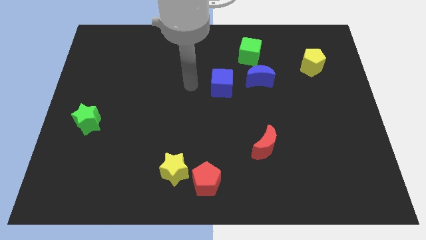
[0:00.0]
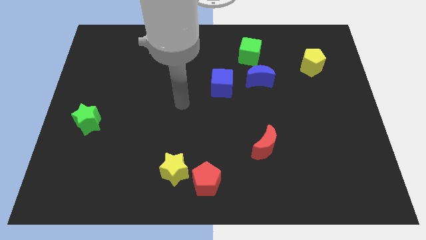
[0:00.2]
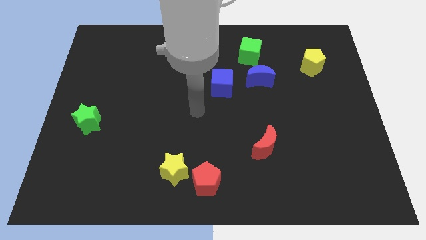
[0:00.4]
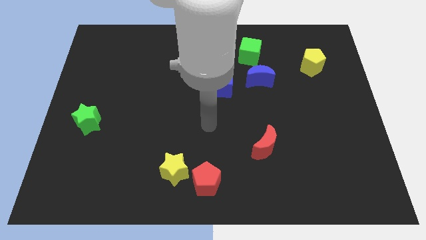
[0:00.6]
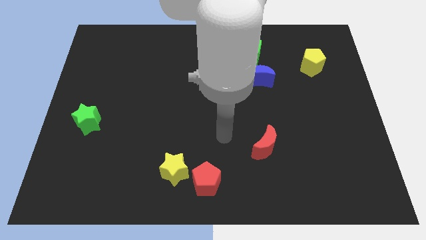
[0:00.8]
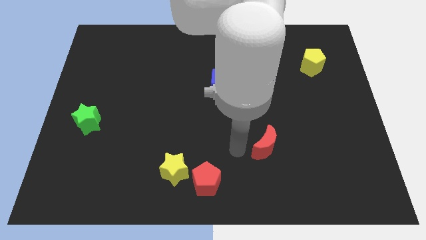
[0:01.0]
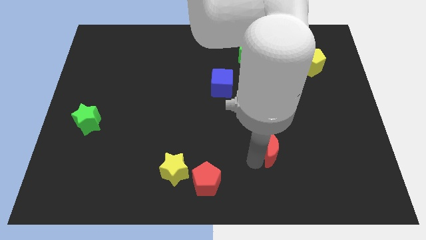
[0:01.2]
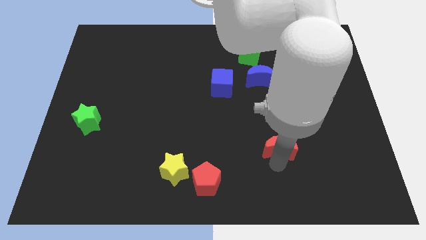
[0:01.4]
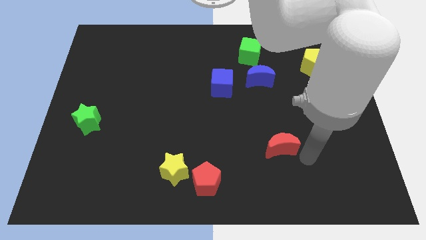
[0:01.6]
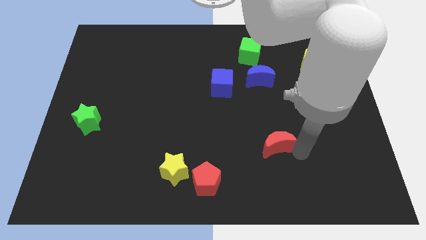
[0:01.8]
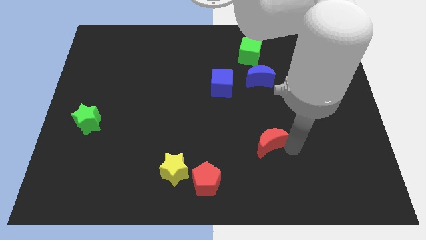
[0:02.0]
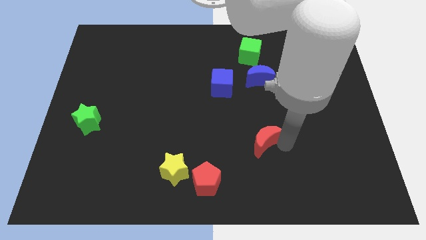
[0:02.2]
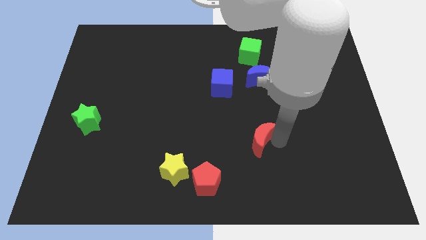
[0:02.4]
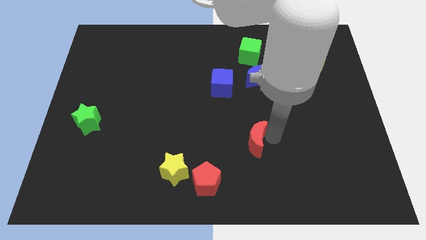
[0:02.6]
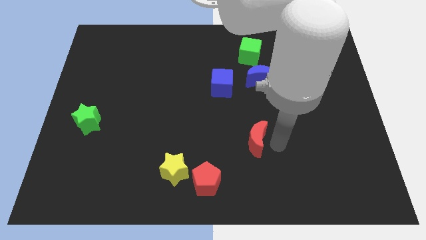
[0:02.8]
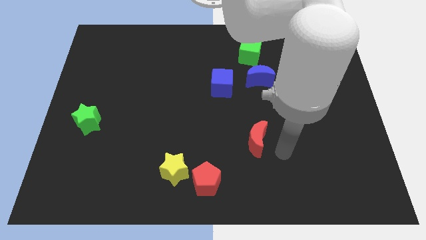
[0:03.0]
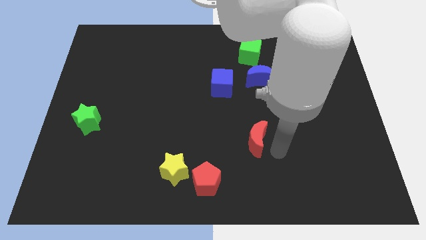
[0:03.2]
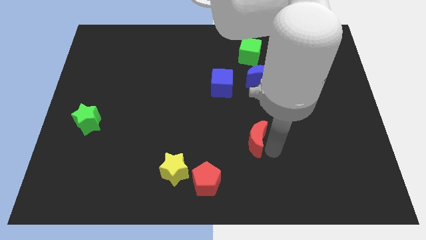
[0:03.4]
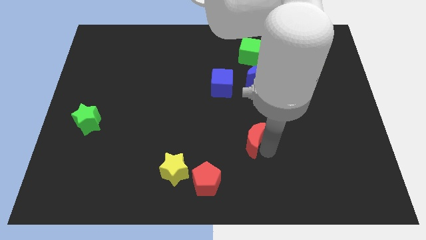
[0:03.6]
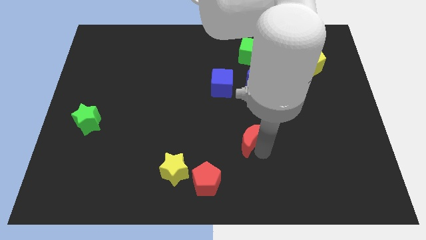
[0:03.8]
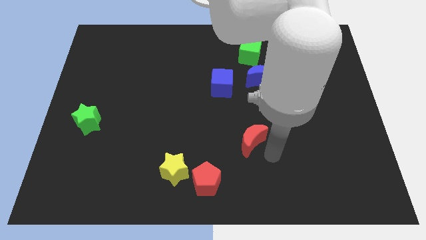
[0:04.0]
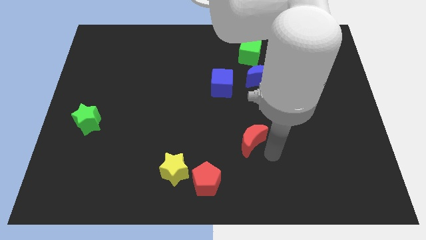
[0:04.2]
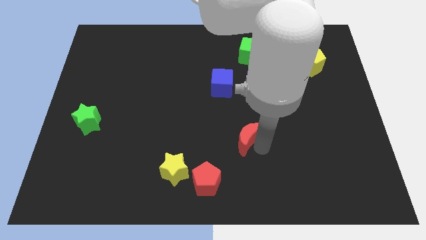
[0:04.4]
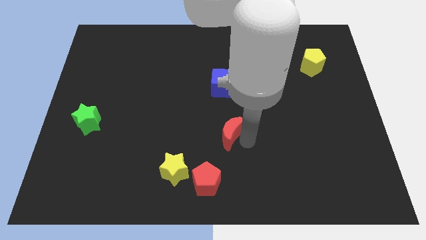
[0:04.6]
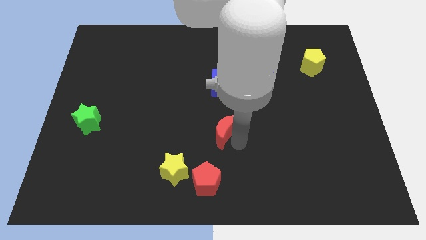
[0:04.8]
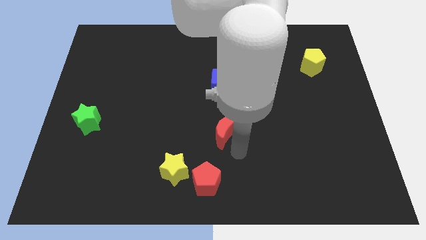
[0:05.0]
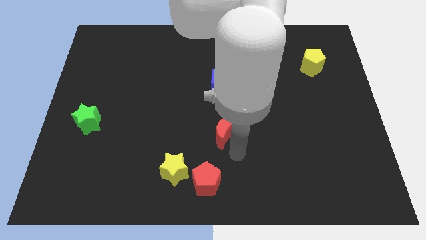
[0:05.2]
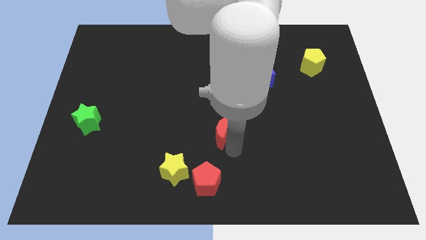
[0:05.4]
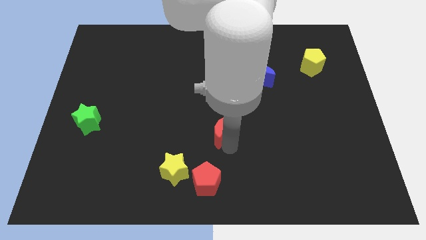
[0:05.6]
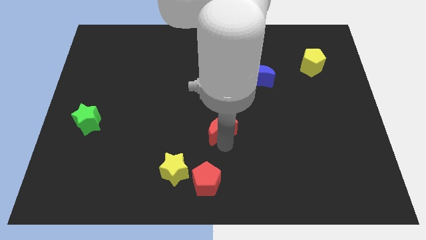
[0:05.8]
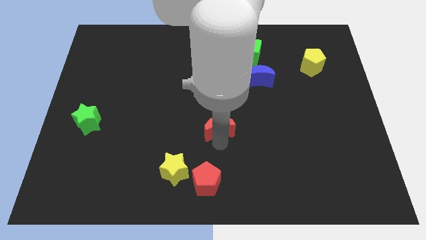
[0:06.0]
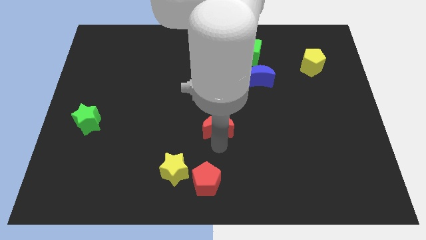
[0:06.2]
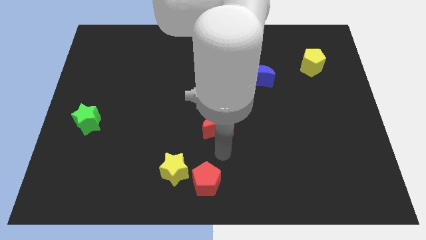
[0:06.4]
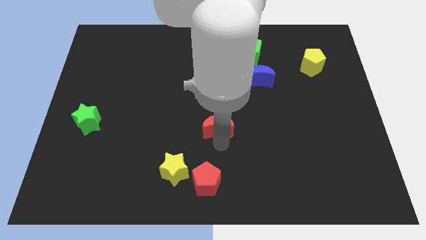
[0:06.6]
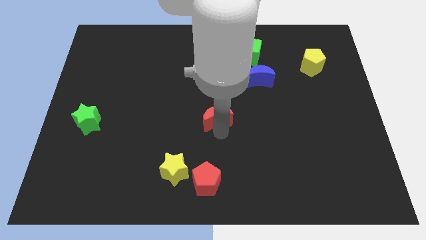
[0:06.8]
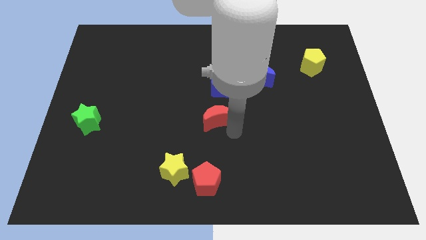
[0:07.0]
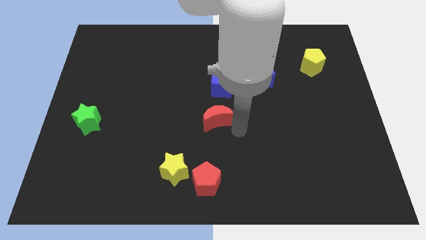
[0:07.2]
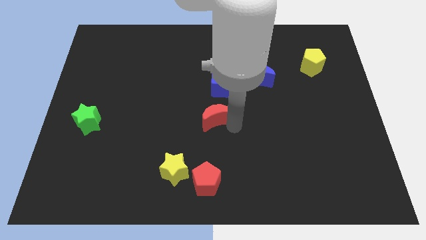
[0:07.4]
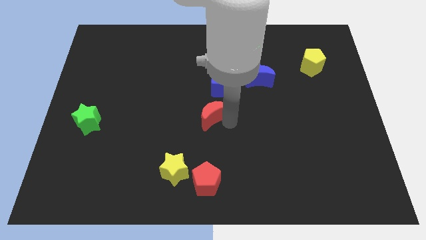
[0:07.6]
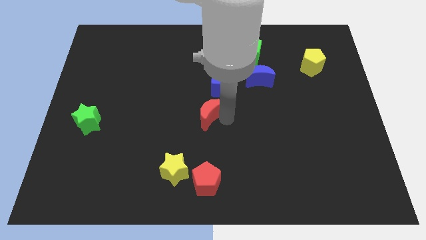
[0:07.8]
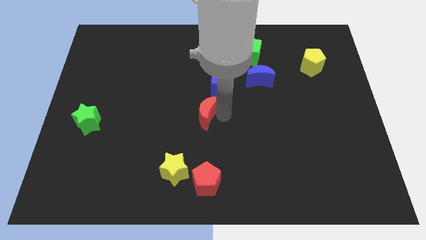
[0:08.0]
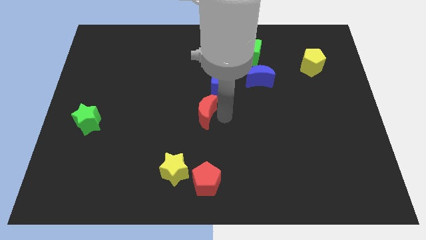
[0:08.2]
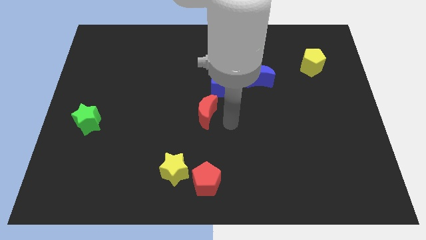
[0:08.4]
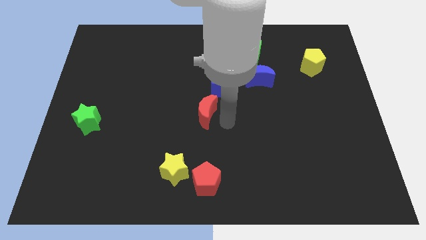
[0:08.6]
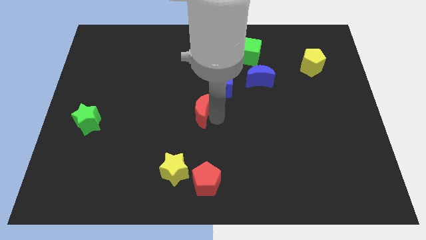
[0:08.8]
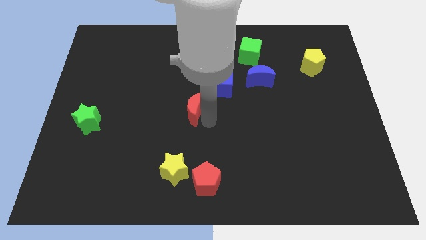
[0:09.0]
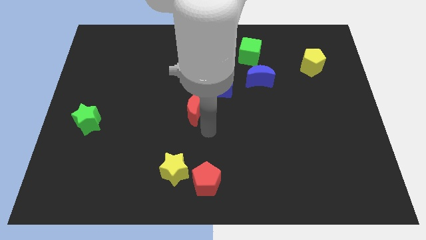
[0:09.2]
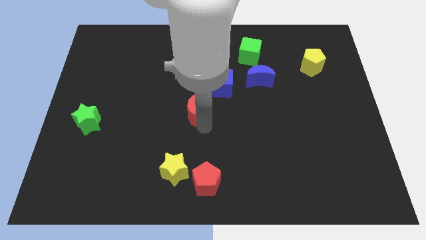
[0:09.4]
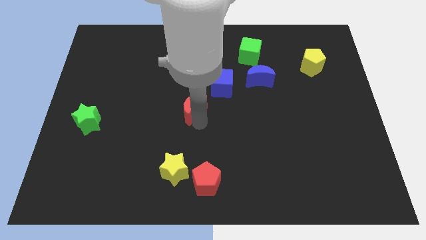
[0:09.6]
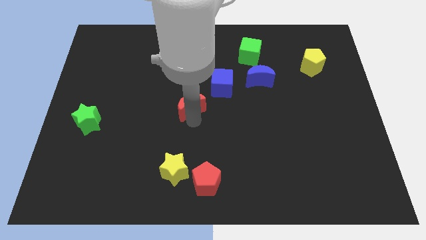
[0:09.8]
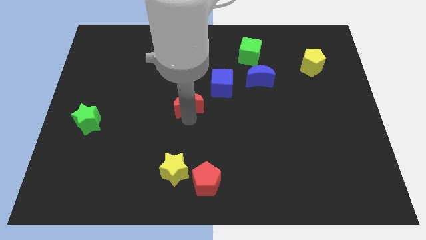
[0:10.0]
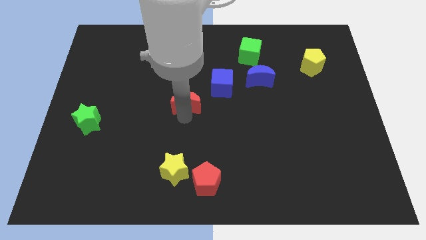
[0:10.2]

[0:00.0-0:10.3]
push the red moon up and left

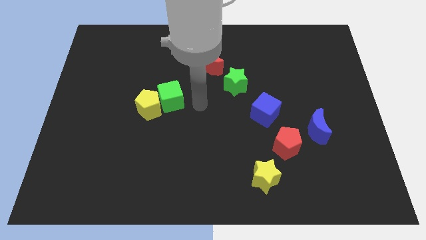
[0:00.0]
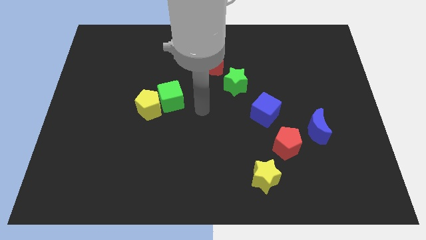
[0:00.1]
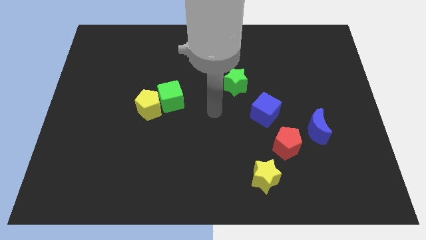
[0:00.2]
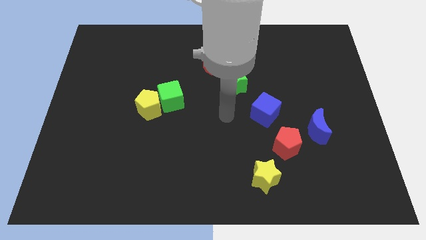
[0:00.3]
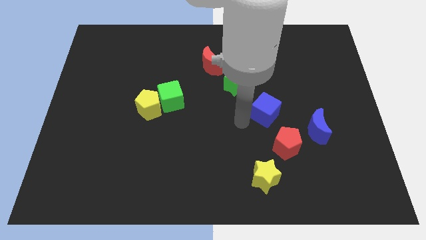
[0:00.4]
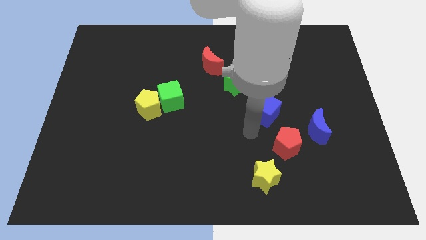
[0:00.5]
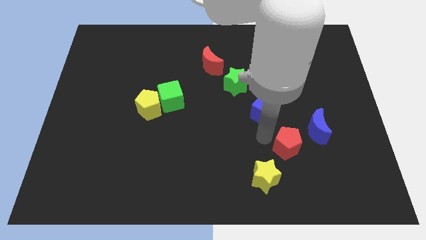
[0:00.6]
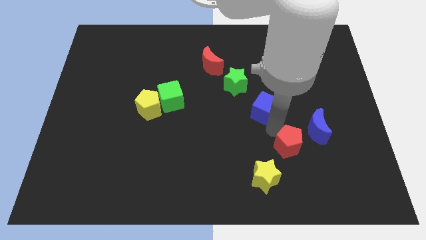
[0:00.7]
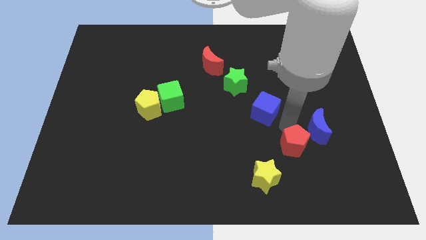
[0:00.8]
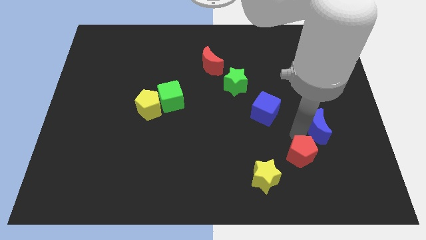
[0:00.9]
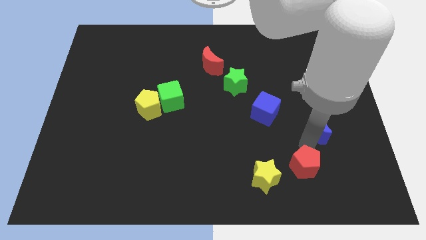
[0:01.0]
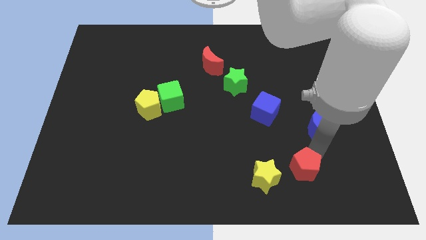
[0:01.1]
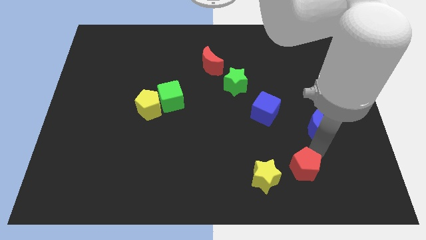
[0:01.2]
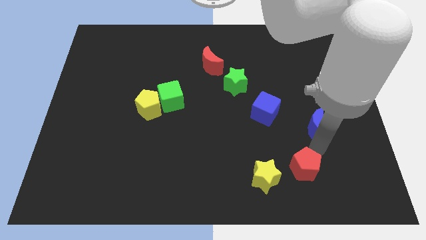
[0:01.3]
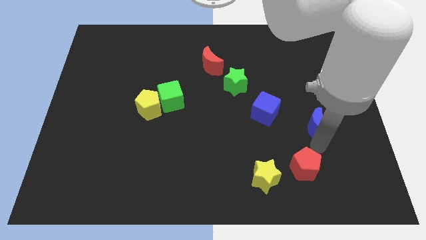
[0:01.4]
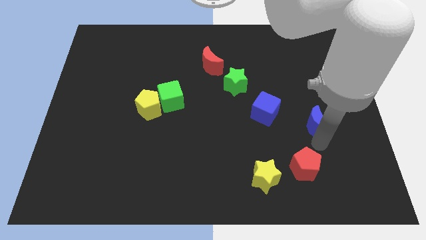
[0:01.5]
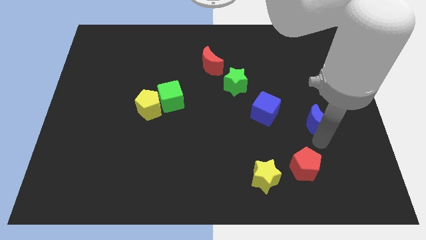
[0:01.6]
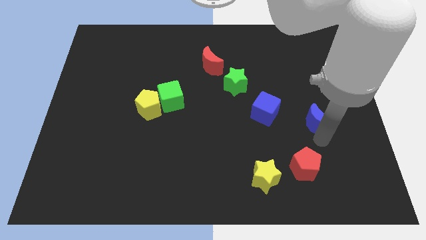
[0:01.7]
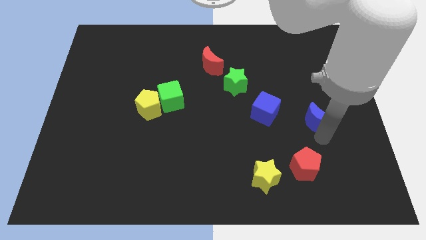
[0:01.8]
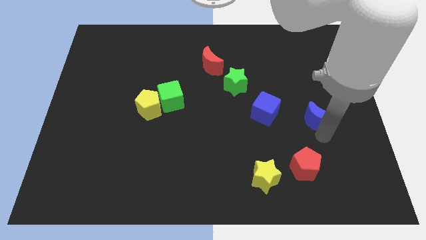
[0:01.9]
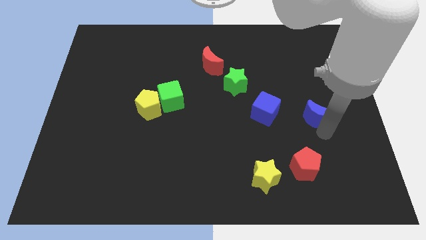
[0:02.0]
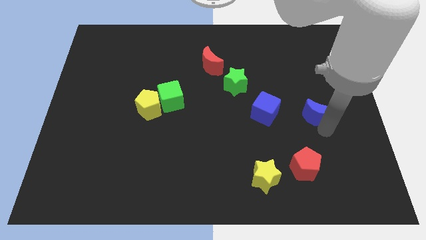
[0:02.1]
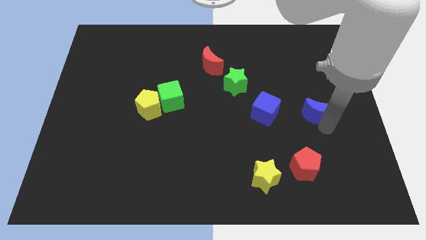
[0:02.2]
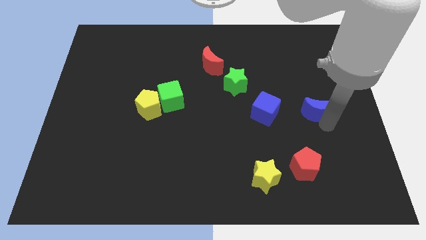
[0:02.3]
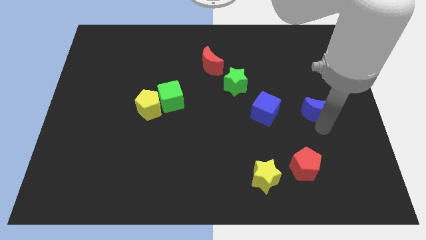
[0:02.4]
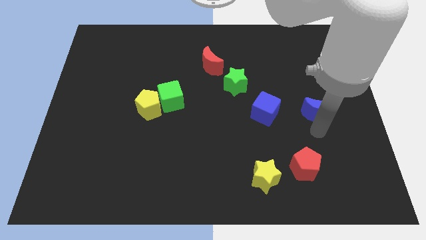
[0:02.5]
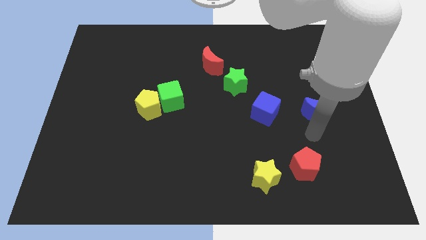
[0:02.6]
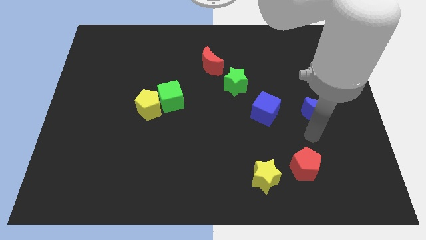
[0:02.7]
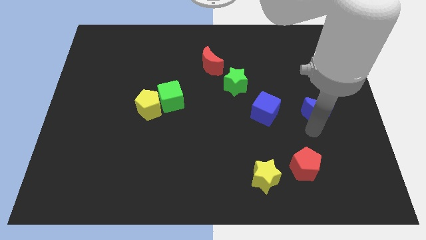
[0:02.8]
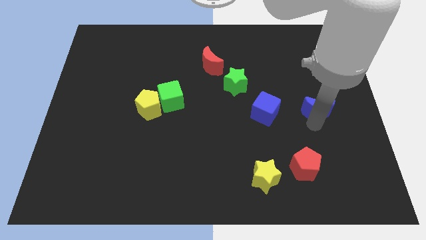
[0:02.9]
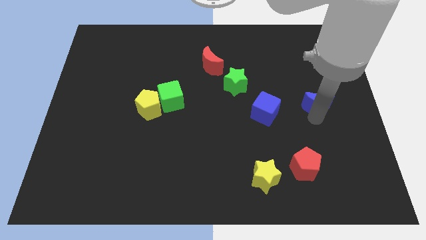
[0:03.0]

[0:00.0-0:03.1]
move the blue moon upwards a little
